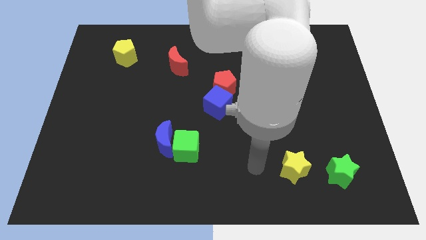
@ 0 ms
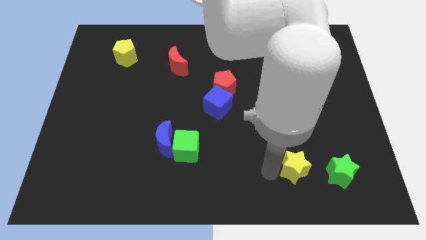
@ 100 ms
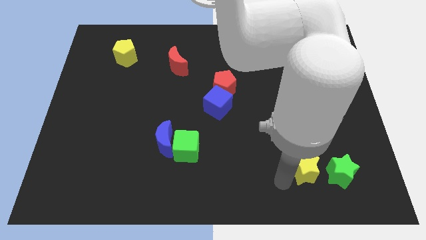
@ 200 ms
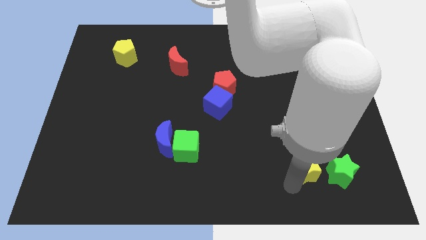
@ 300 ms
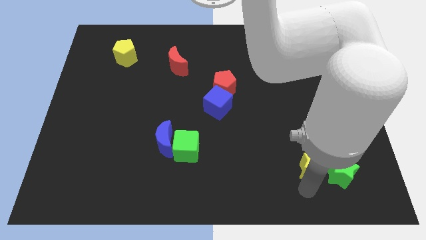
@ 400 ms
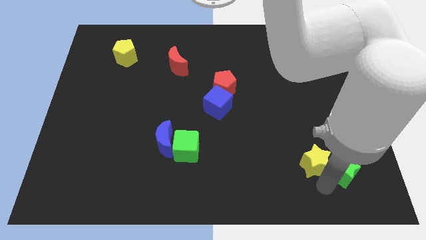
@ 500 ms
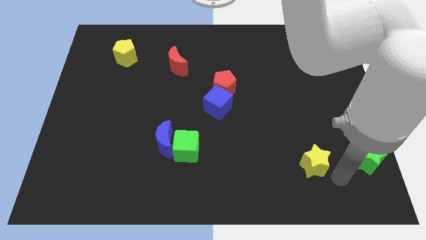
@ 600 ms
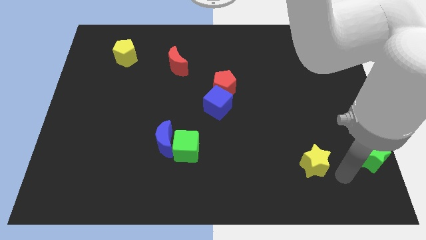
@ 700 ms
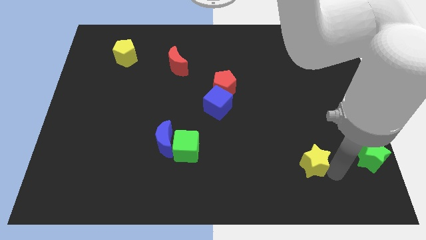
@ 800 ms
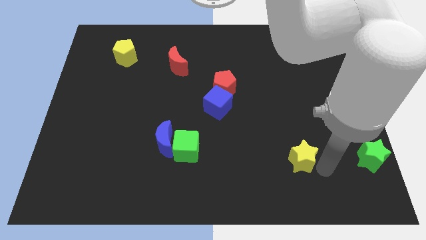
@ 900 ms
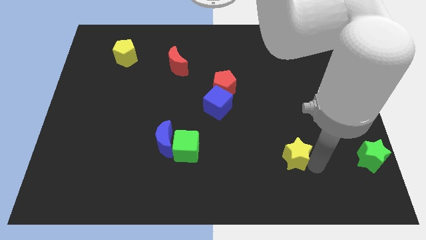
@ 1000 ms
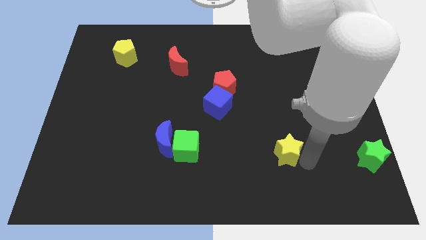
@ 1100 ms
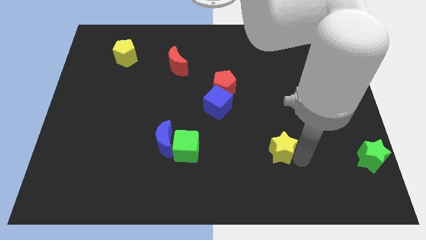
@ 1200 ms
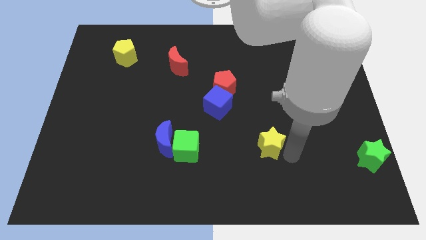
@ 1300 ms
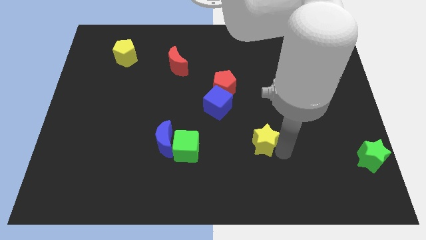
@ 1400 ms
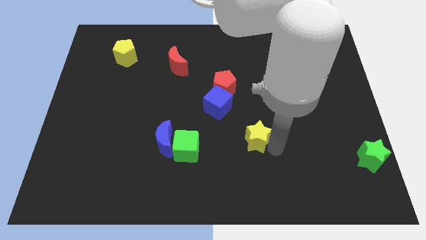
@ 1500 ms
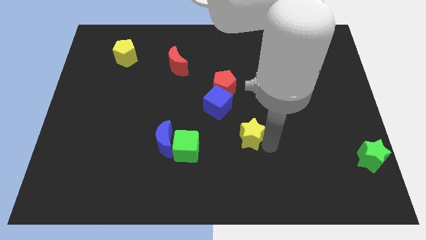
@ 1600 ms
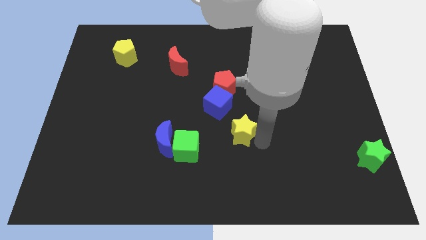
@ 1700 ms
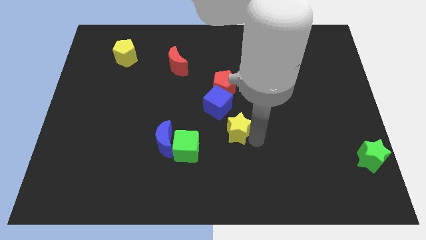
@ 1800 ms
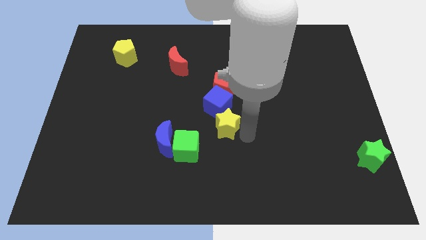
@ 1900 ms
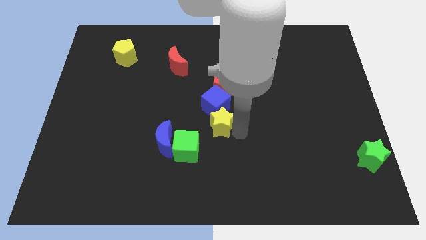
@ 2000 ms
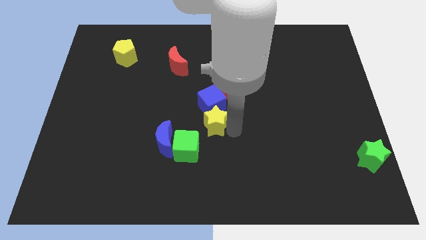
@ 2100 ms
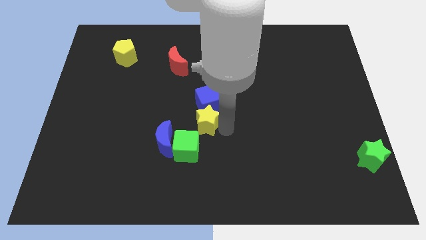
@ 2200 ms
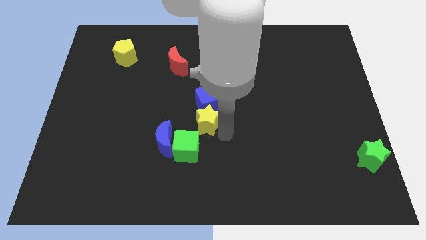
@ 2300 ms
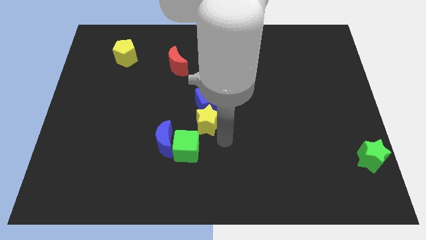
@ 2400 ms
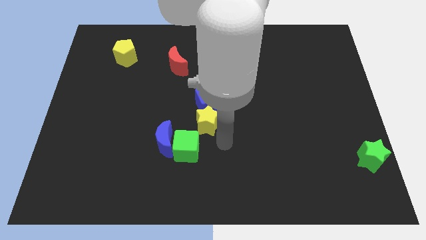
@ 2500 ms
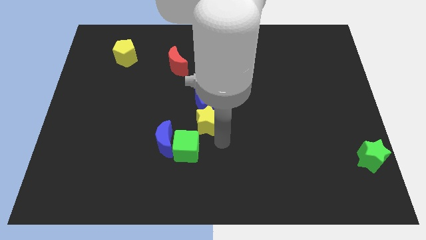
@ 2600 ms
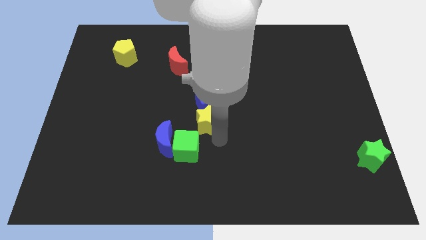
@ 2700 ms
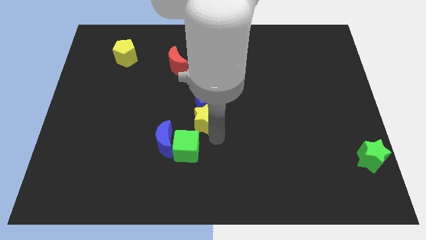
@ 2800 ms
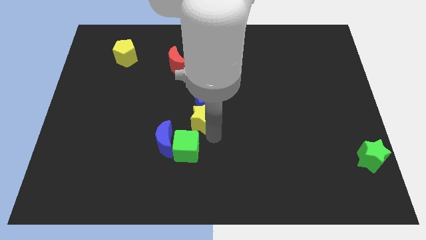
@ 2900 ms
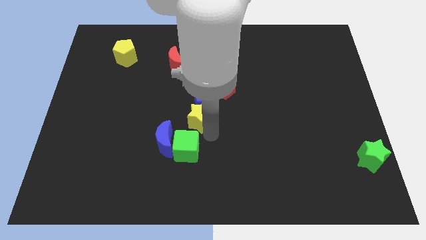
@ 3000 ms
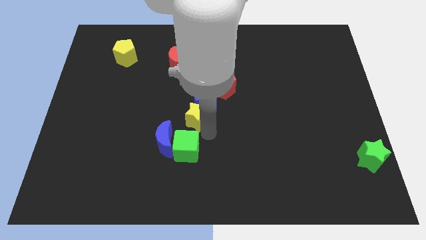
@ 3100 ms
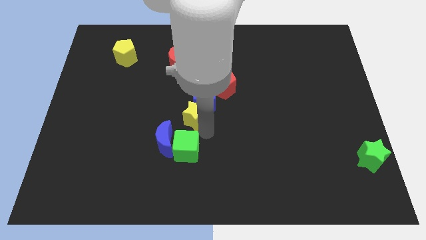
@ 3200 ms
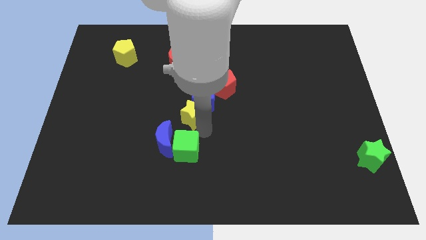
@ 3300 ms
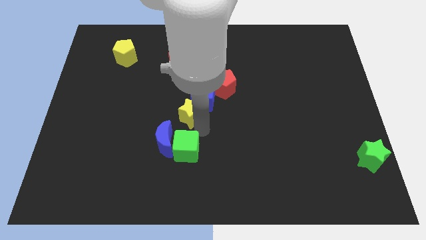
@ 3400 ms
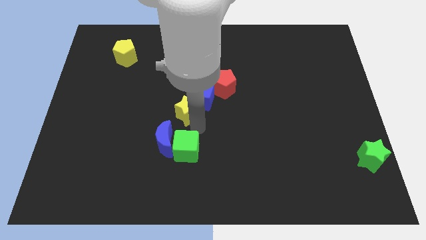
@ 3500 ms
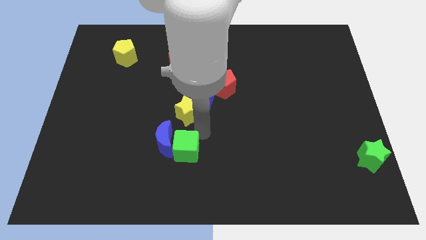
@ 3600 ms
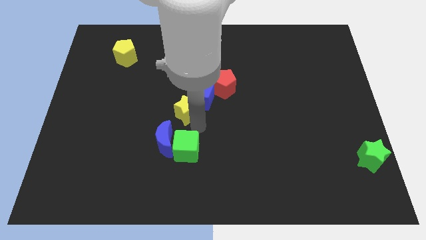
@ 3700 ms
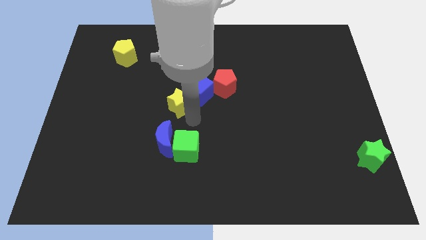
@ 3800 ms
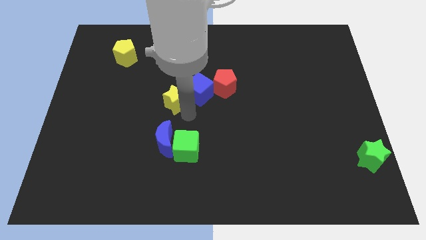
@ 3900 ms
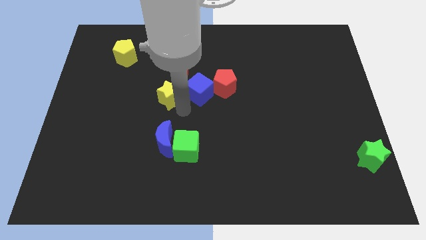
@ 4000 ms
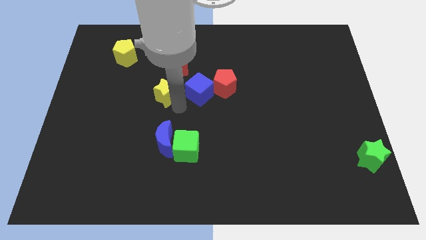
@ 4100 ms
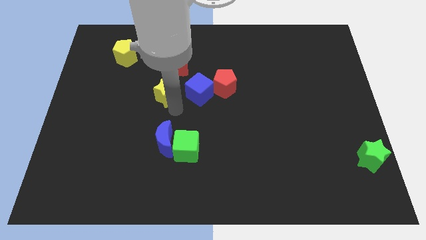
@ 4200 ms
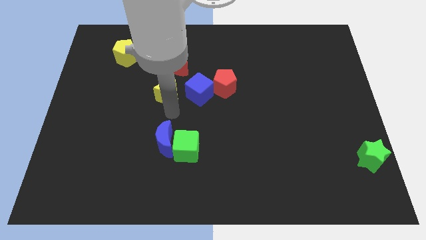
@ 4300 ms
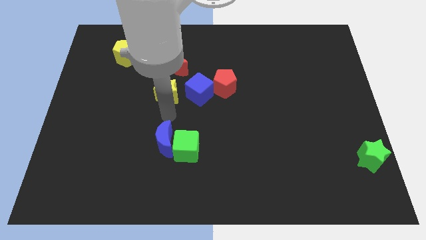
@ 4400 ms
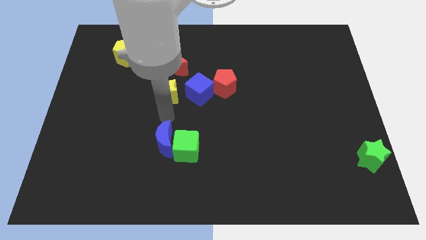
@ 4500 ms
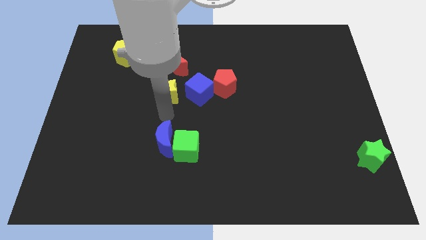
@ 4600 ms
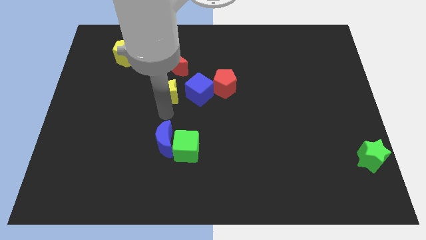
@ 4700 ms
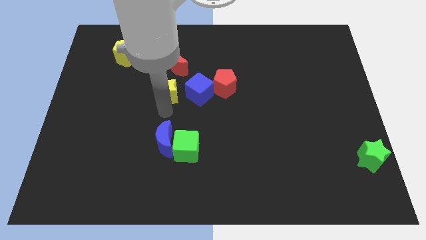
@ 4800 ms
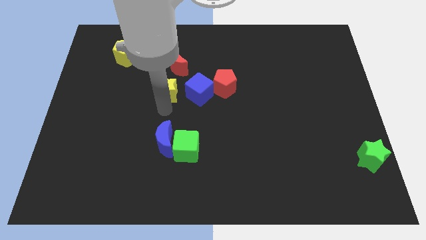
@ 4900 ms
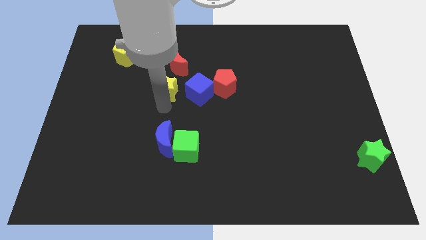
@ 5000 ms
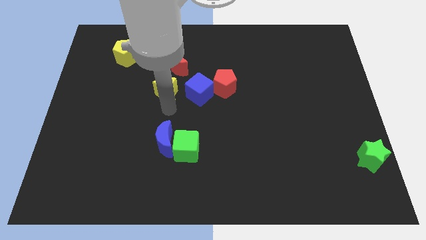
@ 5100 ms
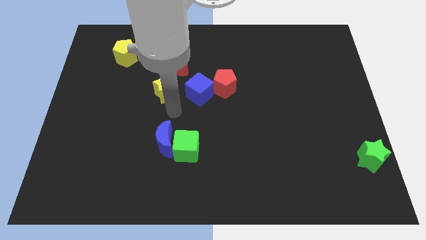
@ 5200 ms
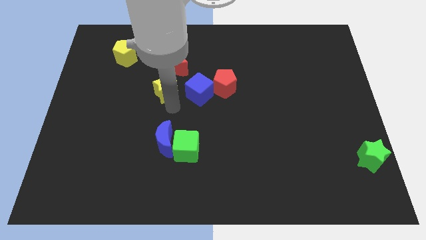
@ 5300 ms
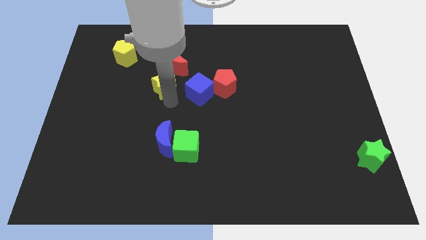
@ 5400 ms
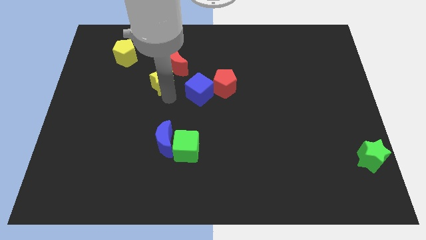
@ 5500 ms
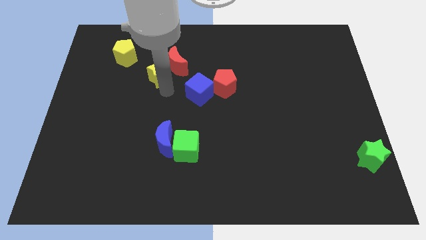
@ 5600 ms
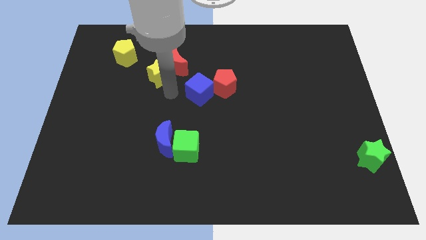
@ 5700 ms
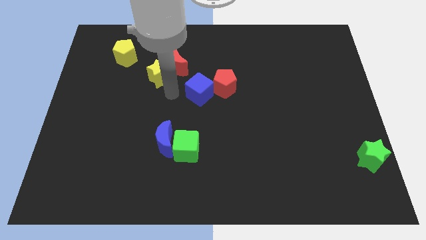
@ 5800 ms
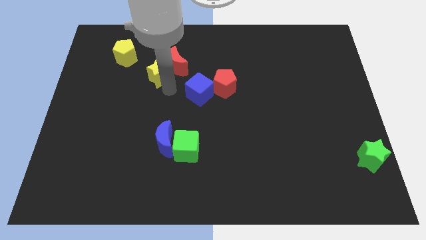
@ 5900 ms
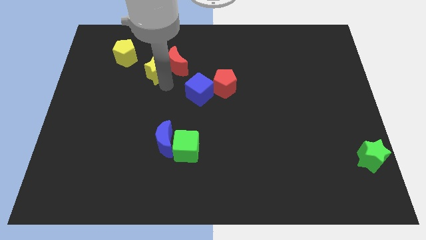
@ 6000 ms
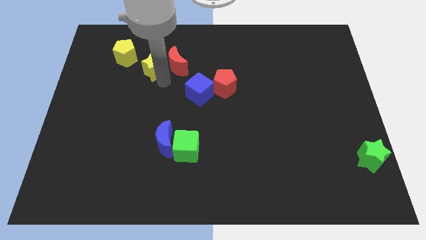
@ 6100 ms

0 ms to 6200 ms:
slide the yellow star to the right of the yellow pentagon

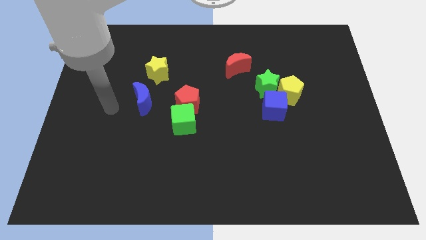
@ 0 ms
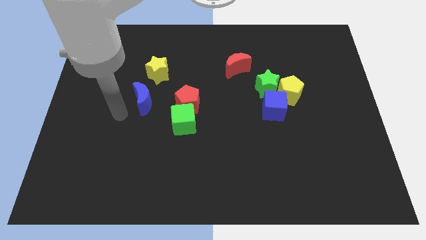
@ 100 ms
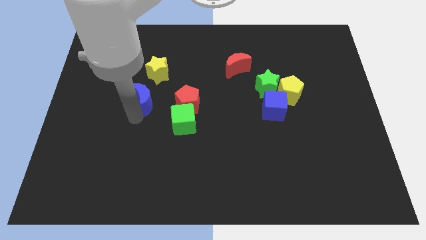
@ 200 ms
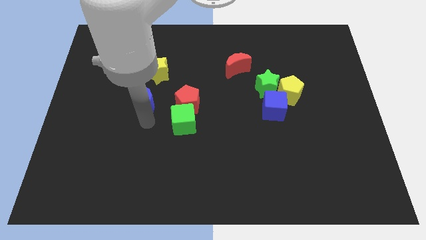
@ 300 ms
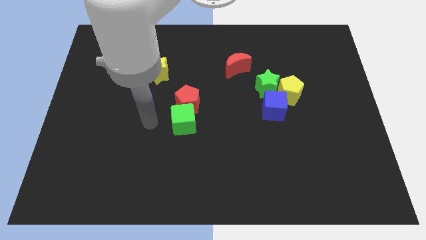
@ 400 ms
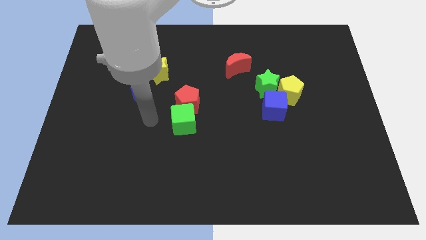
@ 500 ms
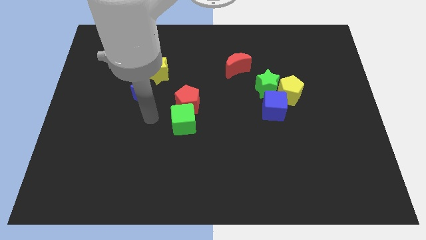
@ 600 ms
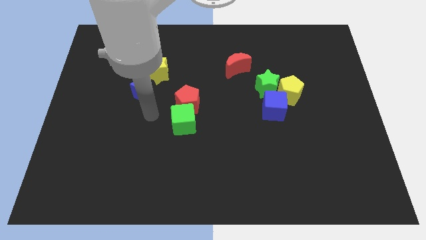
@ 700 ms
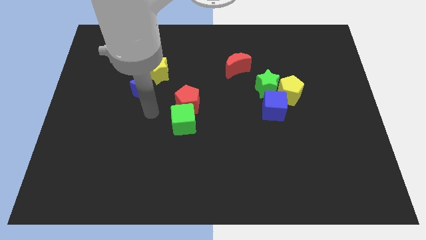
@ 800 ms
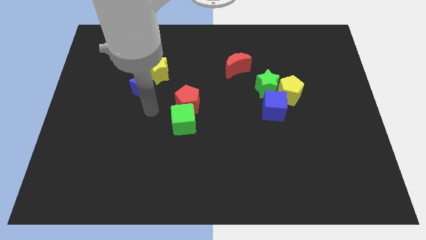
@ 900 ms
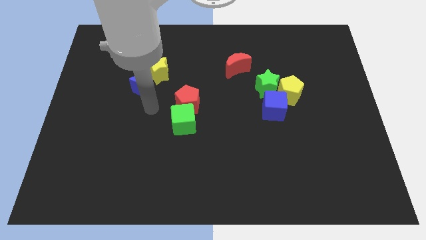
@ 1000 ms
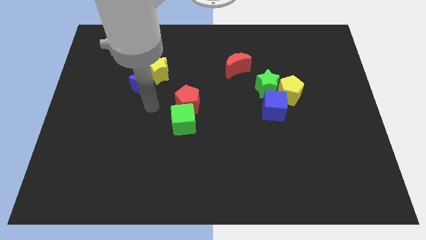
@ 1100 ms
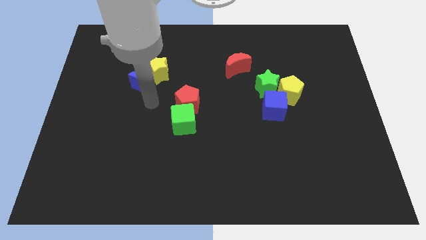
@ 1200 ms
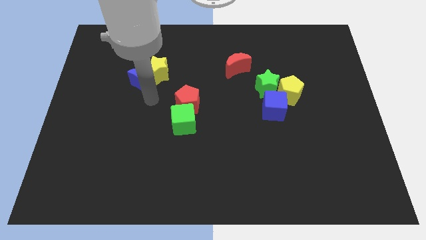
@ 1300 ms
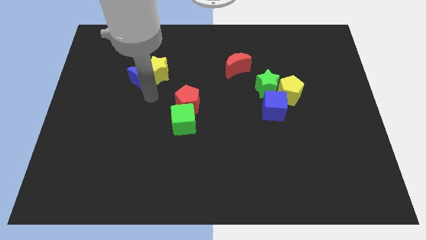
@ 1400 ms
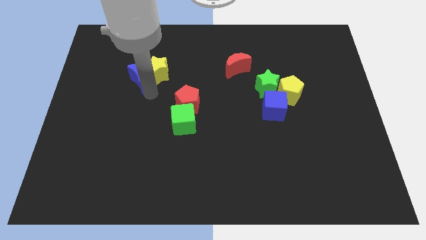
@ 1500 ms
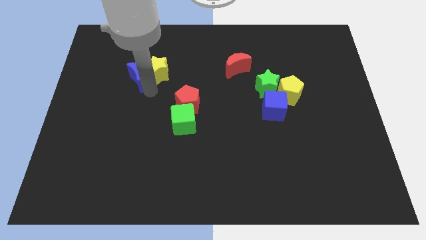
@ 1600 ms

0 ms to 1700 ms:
slide the blue moon to the top left of the yellow star
